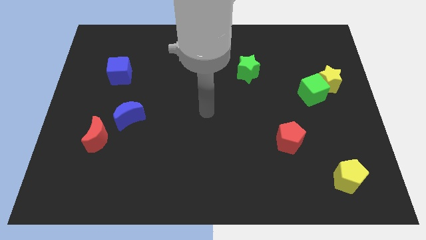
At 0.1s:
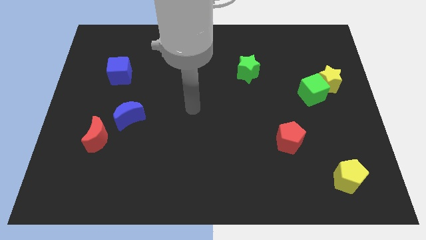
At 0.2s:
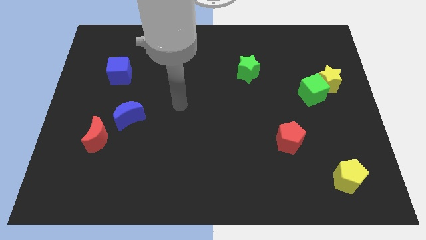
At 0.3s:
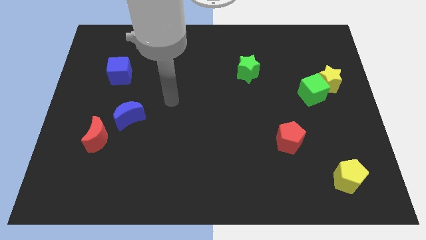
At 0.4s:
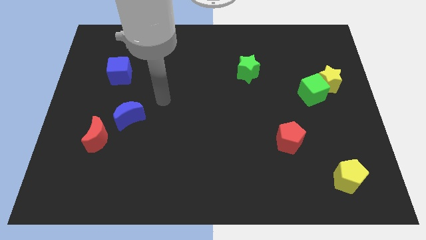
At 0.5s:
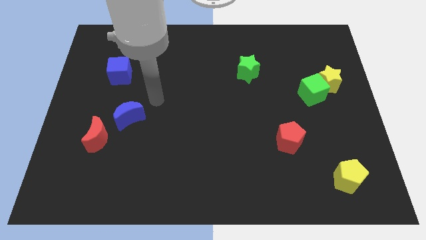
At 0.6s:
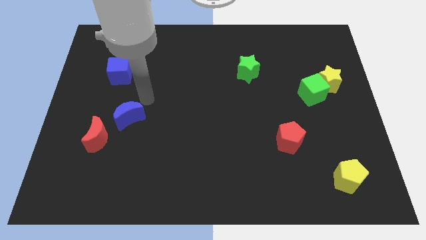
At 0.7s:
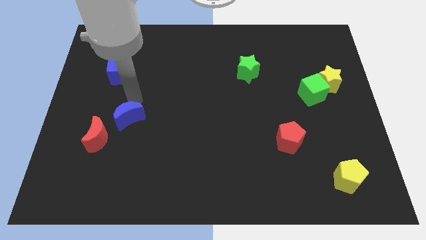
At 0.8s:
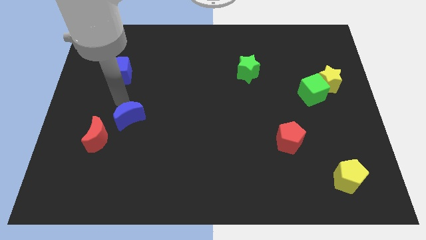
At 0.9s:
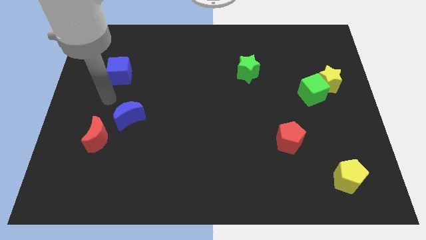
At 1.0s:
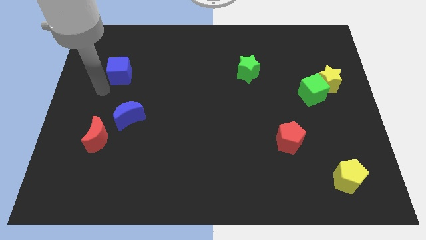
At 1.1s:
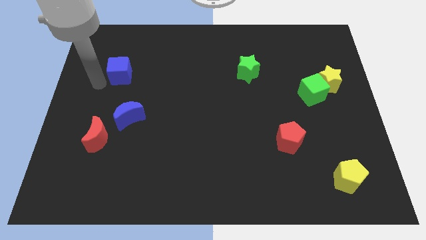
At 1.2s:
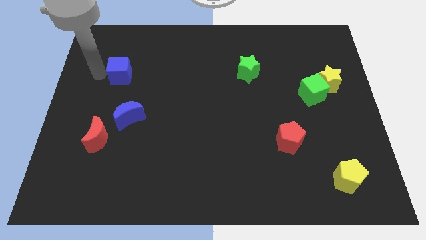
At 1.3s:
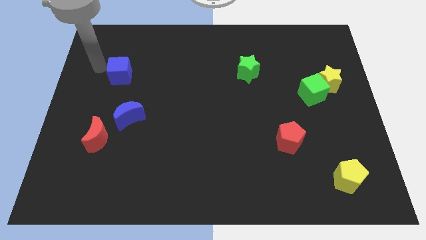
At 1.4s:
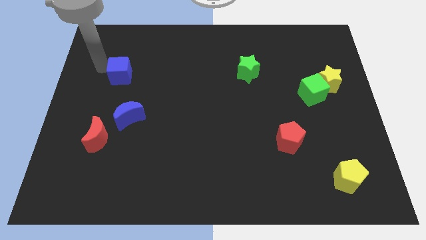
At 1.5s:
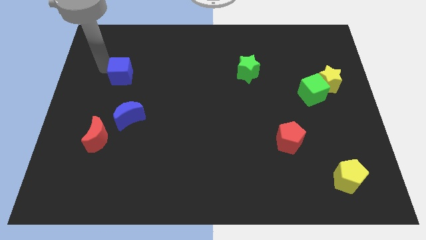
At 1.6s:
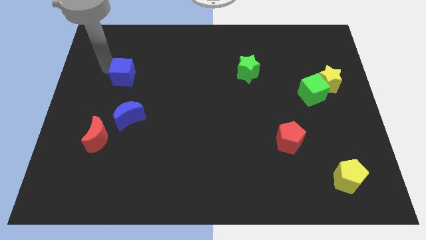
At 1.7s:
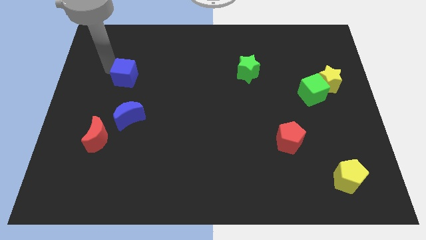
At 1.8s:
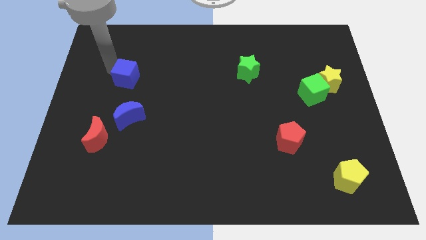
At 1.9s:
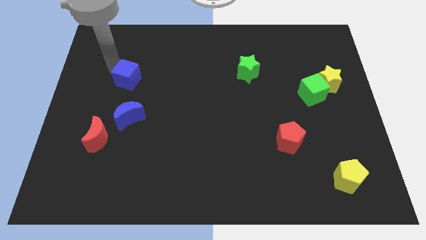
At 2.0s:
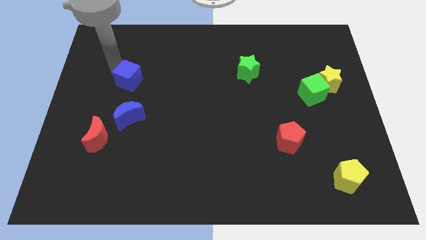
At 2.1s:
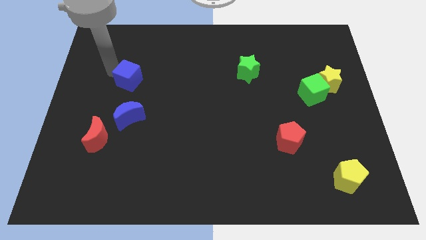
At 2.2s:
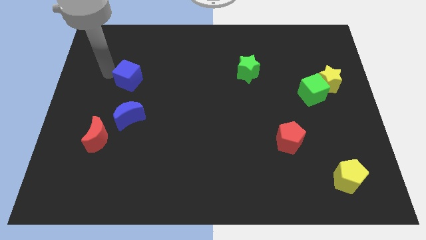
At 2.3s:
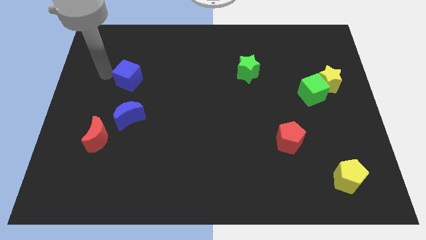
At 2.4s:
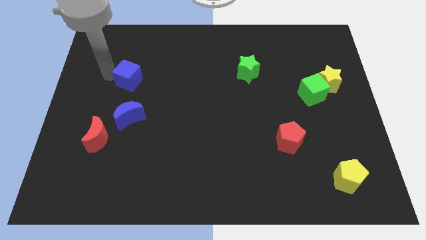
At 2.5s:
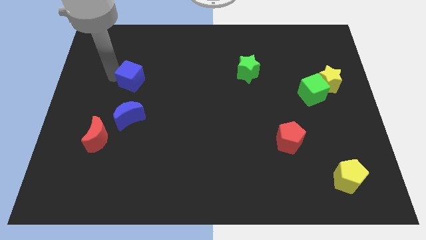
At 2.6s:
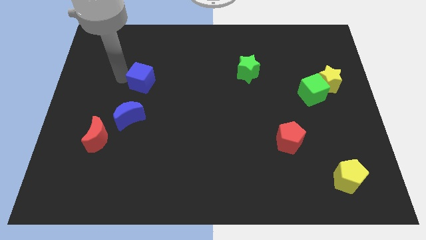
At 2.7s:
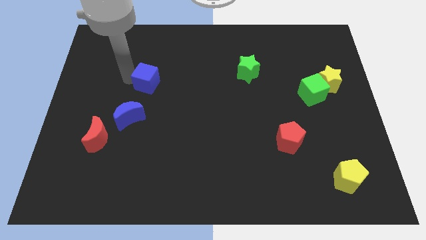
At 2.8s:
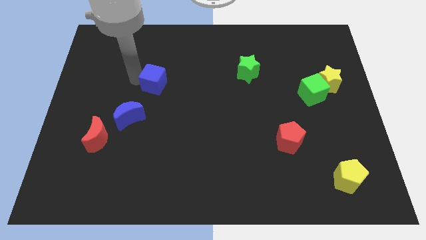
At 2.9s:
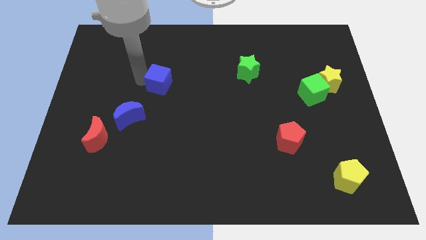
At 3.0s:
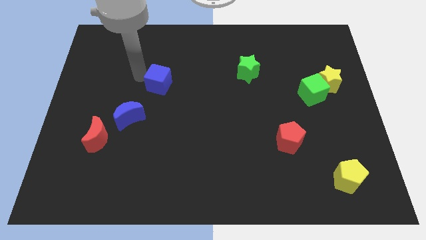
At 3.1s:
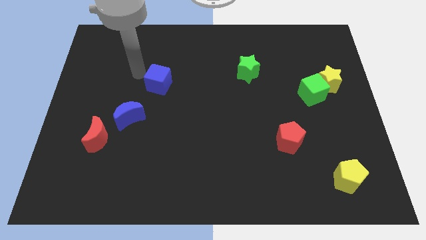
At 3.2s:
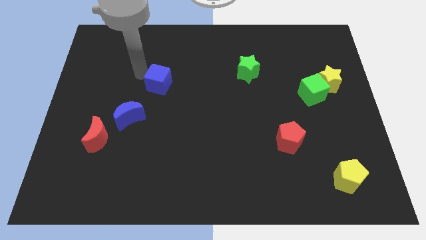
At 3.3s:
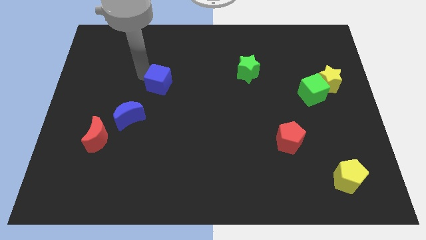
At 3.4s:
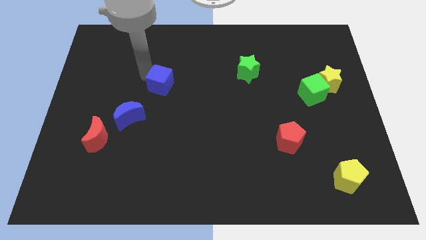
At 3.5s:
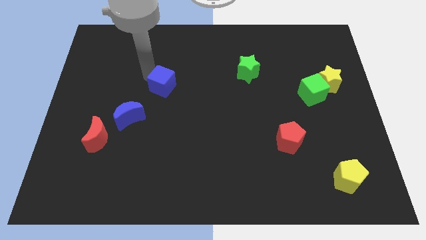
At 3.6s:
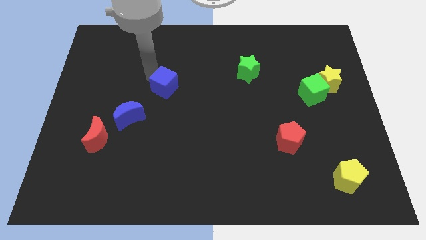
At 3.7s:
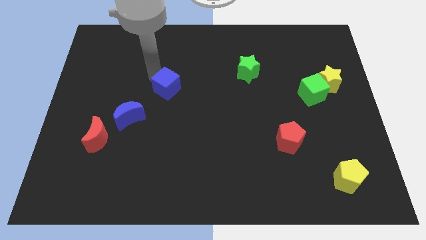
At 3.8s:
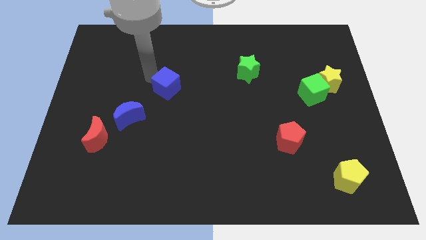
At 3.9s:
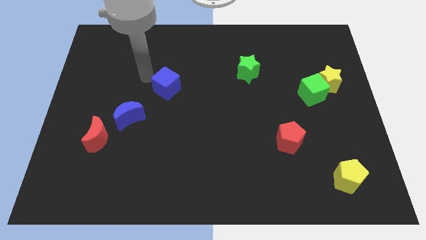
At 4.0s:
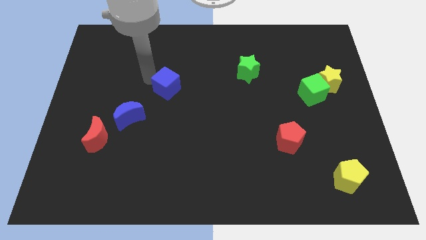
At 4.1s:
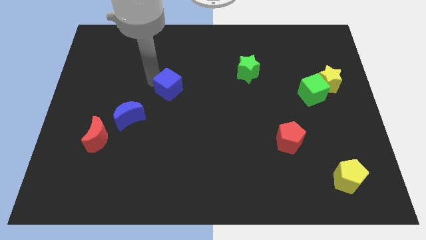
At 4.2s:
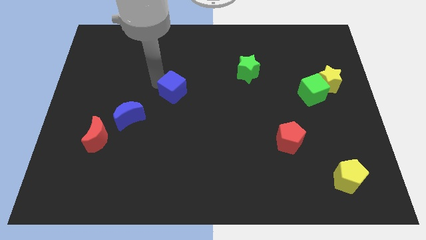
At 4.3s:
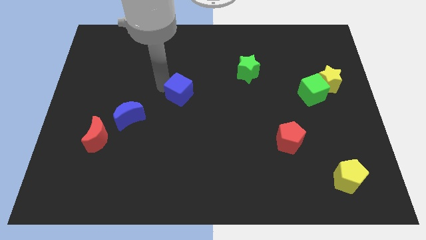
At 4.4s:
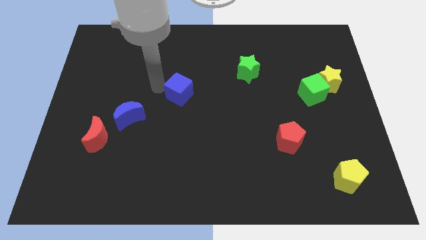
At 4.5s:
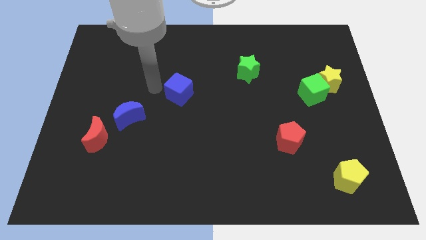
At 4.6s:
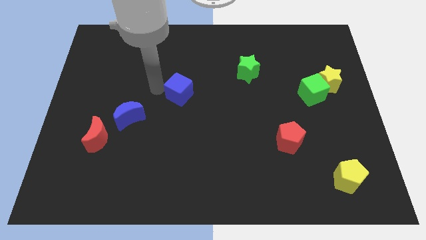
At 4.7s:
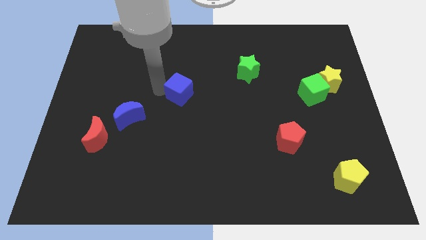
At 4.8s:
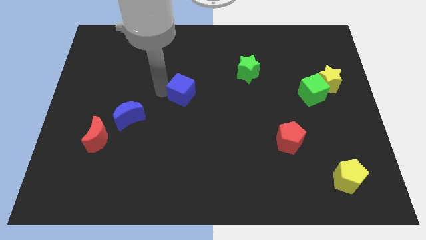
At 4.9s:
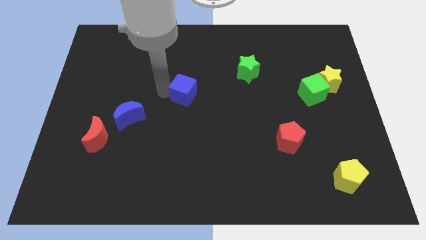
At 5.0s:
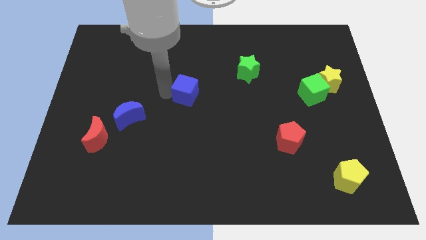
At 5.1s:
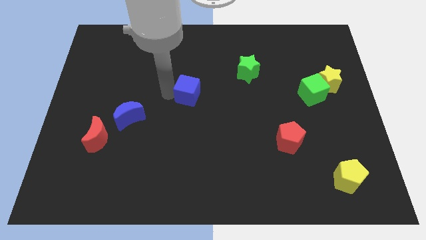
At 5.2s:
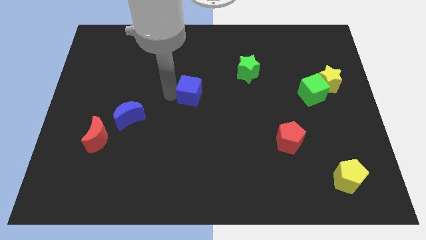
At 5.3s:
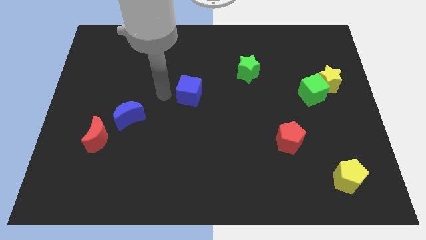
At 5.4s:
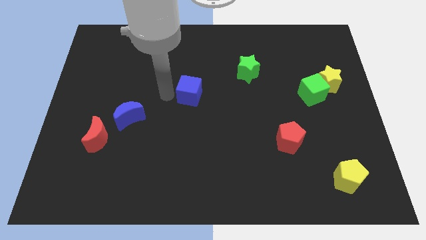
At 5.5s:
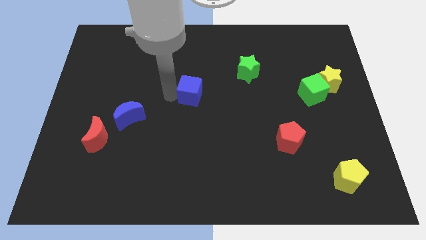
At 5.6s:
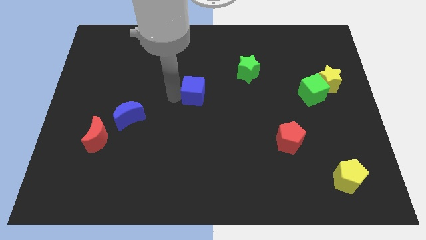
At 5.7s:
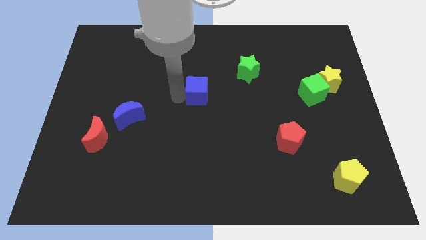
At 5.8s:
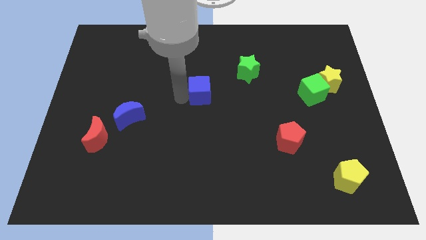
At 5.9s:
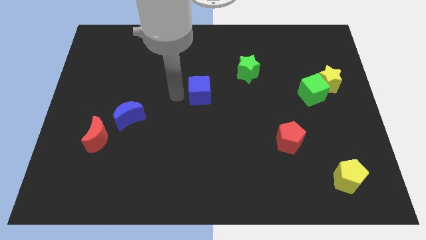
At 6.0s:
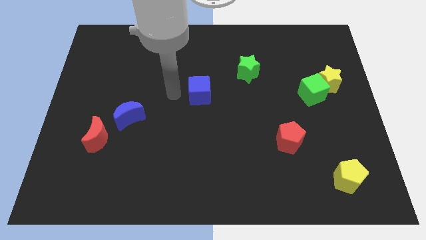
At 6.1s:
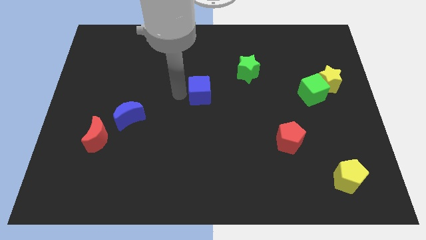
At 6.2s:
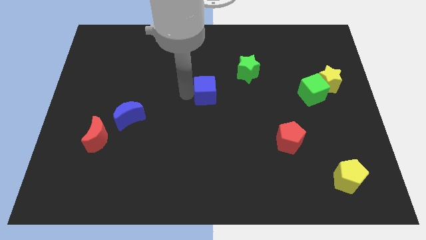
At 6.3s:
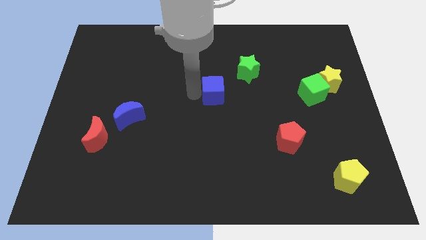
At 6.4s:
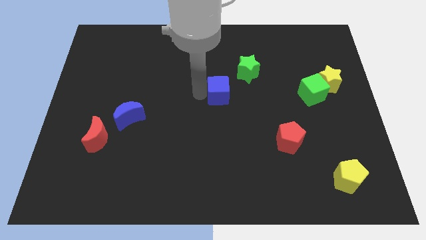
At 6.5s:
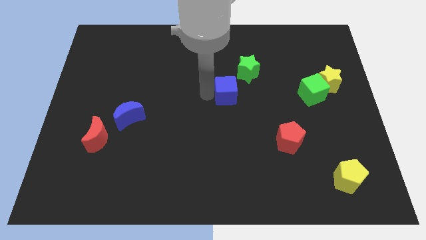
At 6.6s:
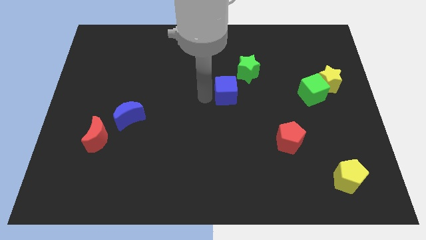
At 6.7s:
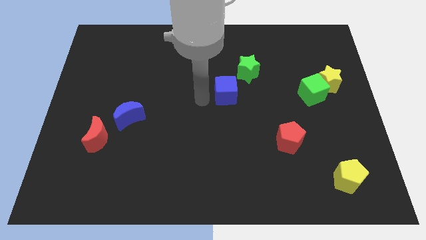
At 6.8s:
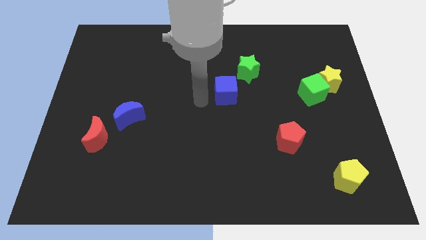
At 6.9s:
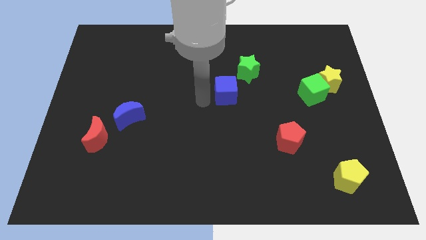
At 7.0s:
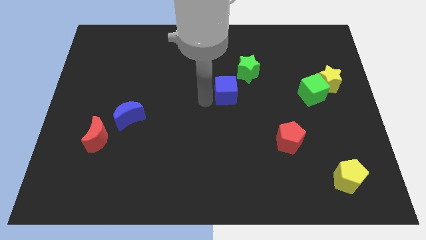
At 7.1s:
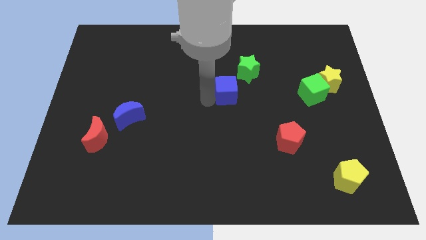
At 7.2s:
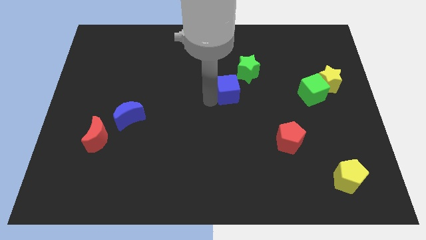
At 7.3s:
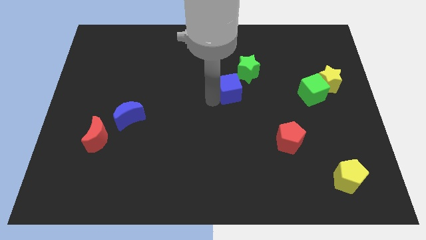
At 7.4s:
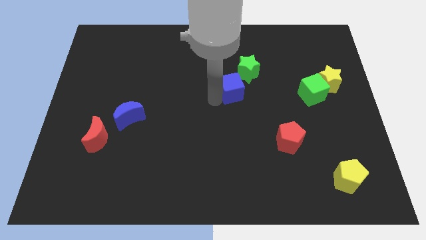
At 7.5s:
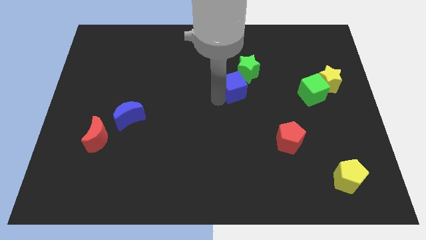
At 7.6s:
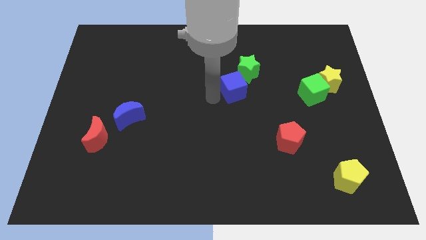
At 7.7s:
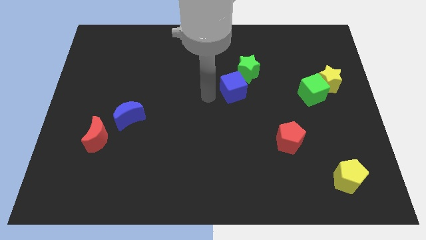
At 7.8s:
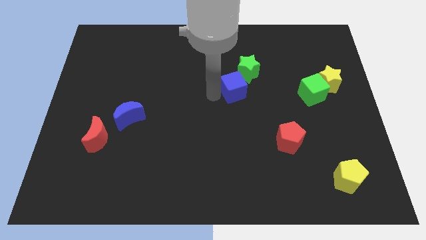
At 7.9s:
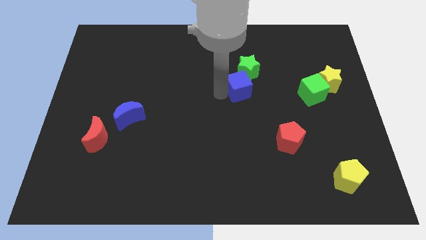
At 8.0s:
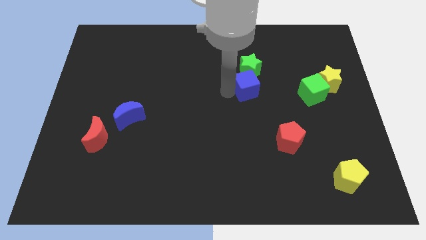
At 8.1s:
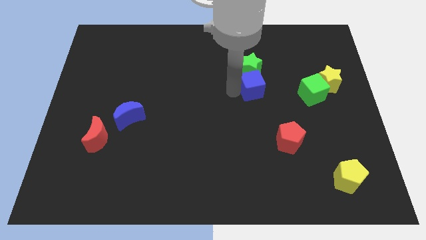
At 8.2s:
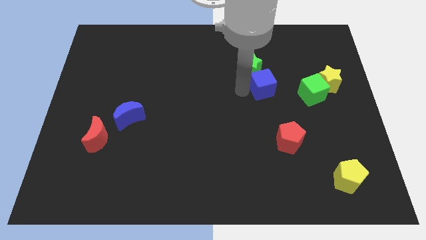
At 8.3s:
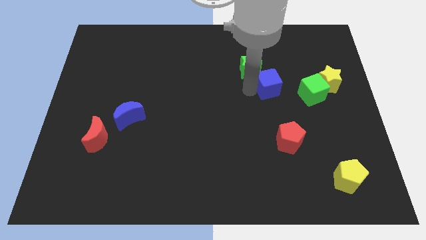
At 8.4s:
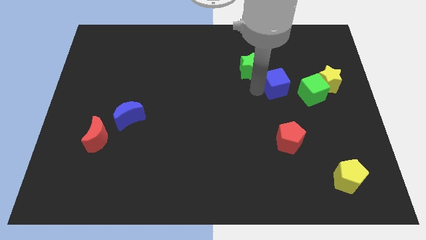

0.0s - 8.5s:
move the blue cube to the top left side of the green cube
